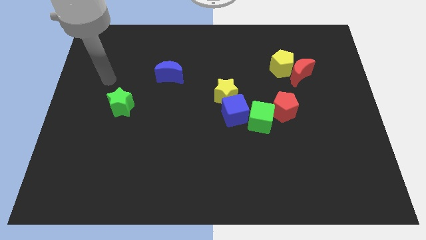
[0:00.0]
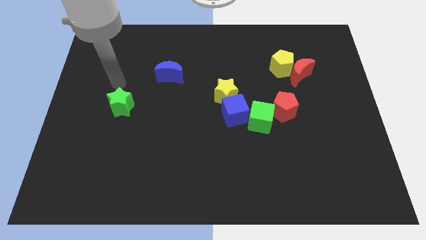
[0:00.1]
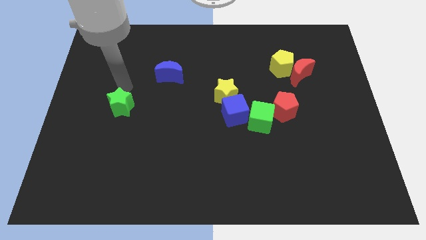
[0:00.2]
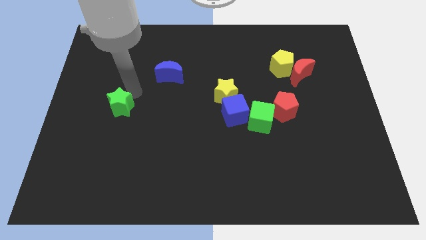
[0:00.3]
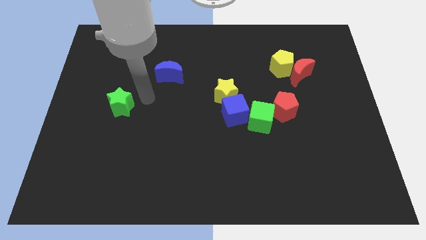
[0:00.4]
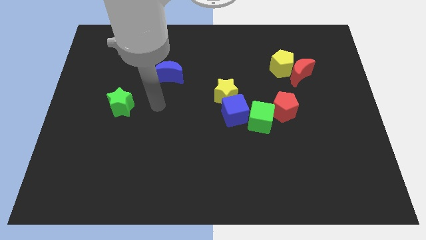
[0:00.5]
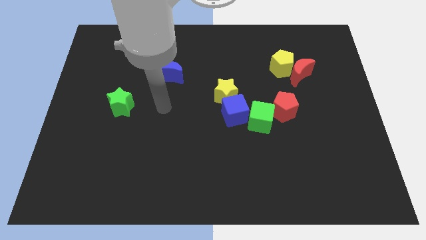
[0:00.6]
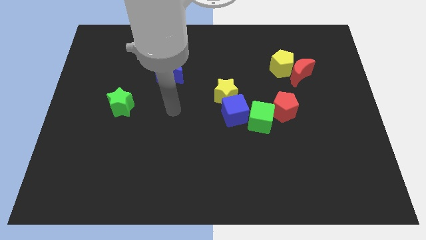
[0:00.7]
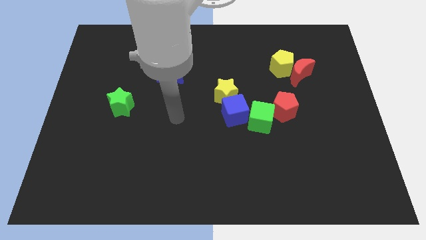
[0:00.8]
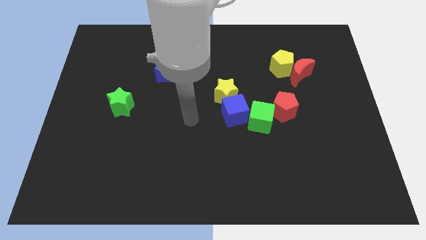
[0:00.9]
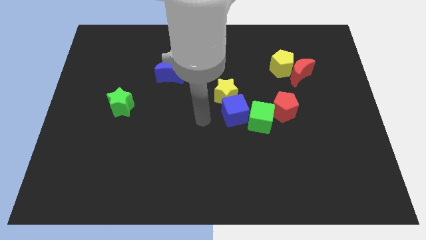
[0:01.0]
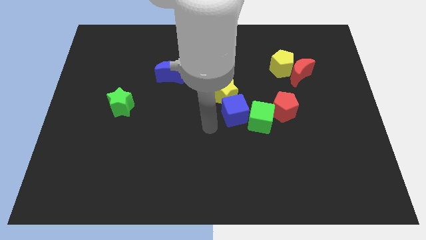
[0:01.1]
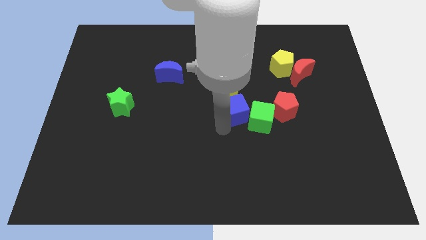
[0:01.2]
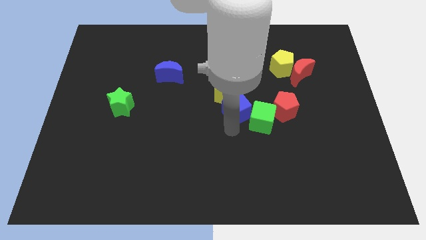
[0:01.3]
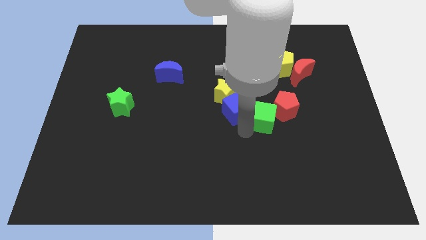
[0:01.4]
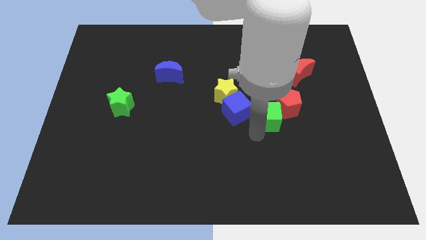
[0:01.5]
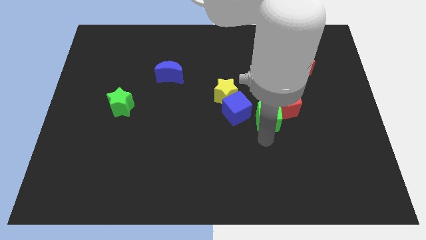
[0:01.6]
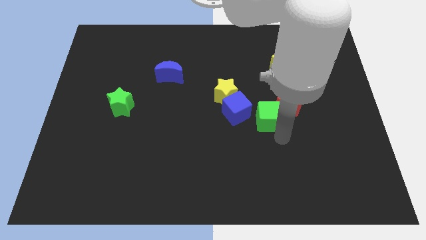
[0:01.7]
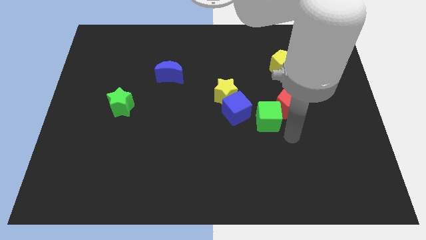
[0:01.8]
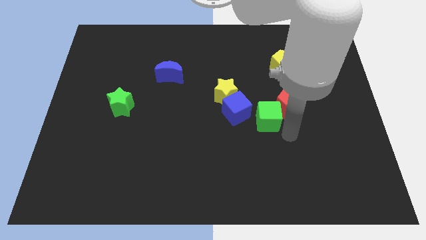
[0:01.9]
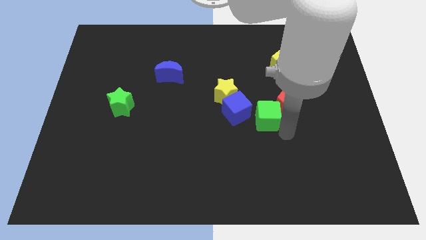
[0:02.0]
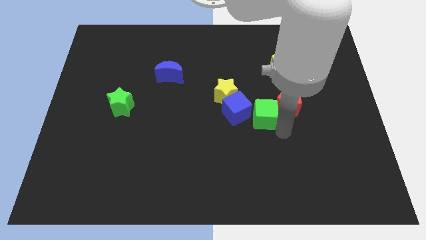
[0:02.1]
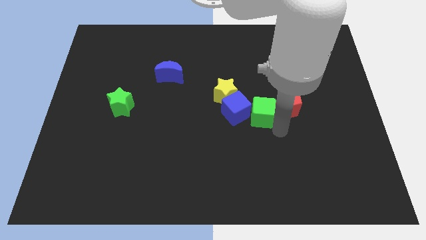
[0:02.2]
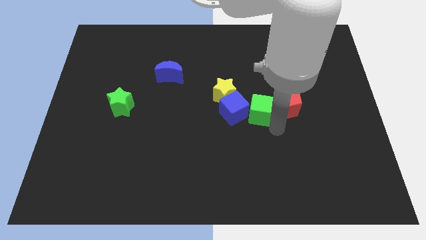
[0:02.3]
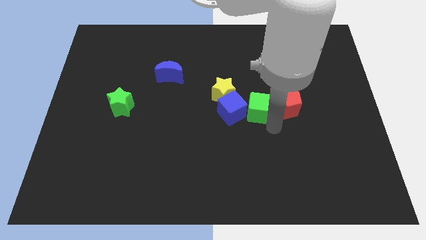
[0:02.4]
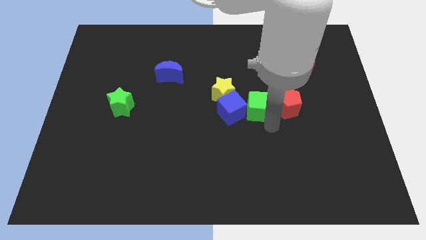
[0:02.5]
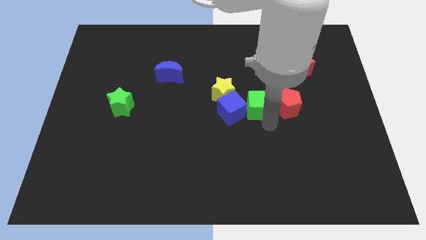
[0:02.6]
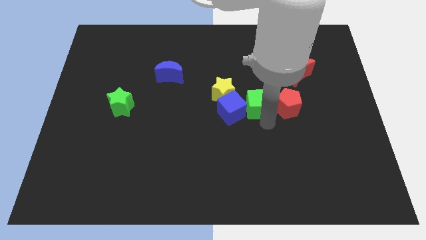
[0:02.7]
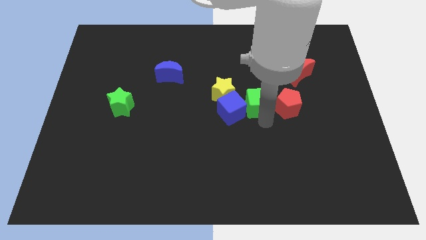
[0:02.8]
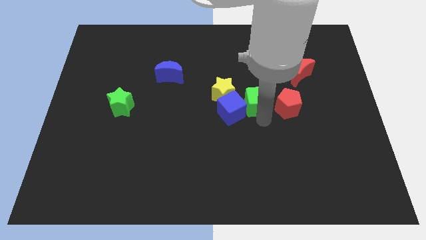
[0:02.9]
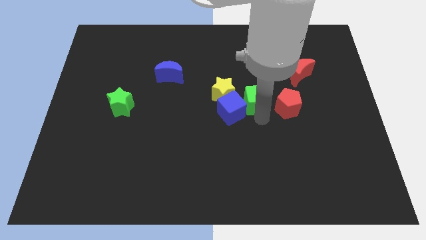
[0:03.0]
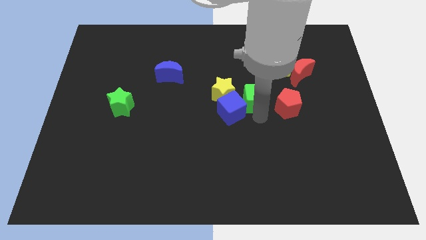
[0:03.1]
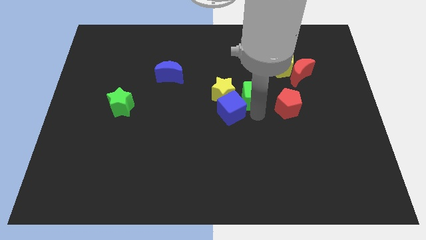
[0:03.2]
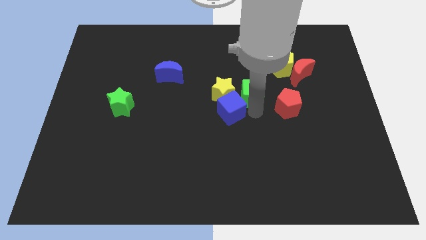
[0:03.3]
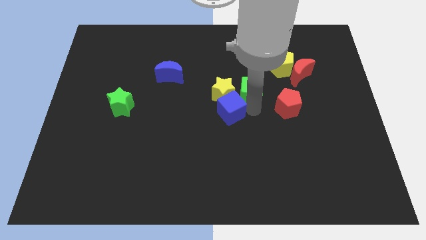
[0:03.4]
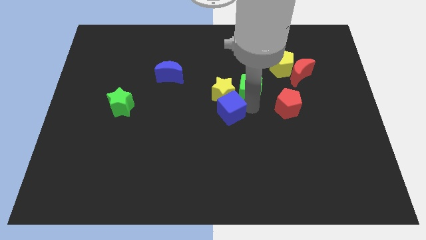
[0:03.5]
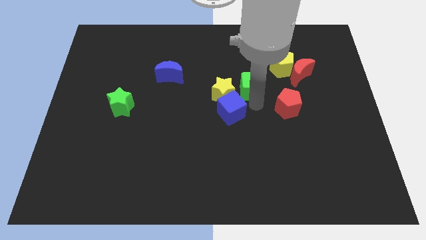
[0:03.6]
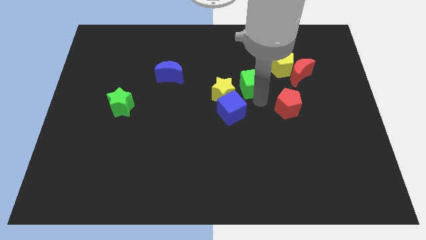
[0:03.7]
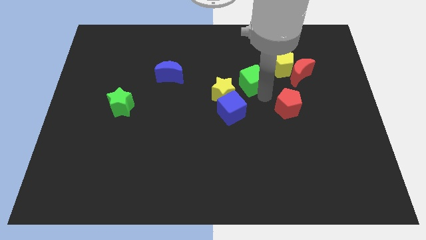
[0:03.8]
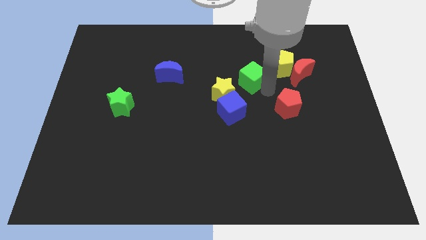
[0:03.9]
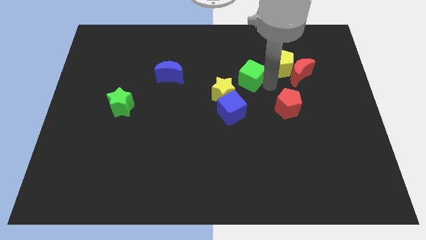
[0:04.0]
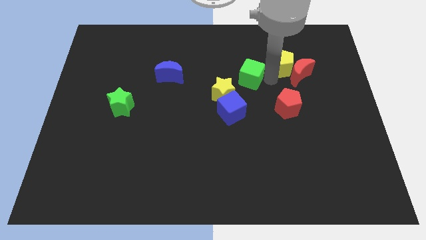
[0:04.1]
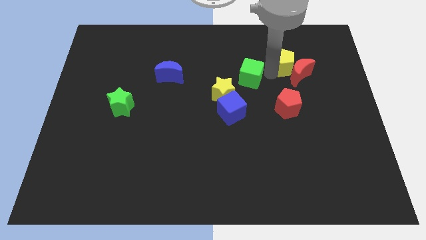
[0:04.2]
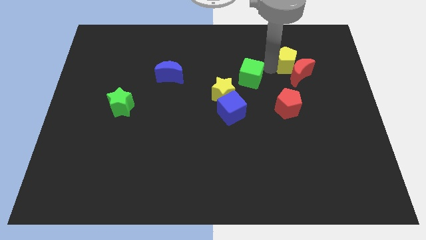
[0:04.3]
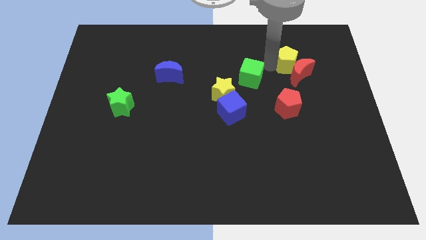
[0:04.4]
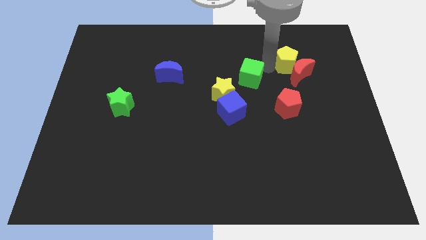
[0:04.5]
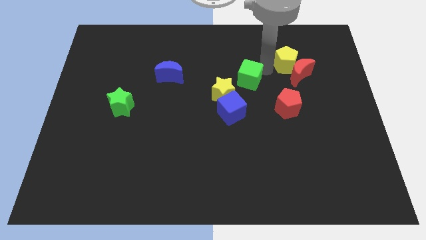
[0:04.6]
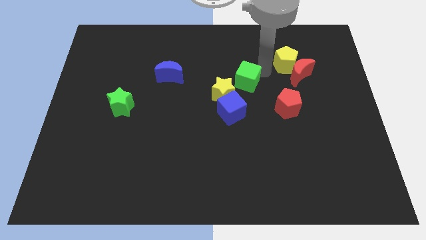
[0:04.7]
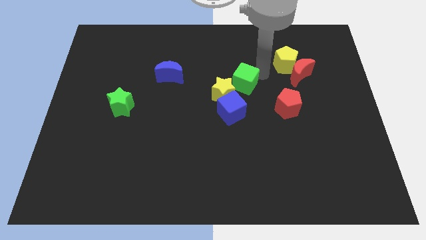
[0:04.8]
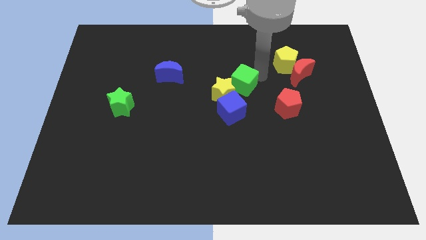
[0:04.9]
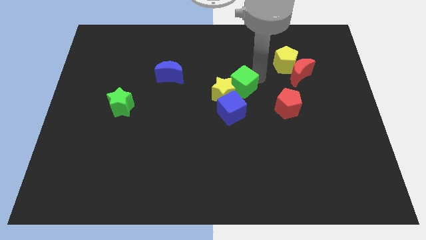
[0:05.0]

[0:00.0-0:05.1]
push the green cube close to the yellow star

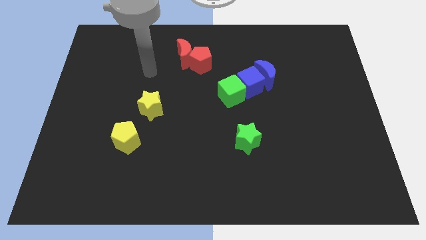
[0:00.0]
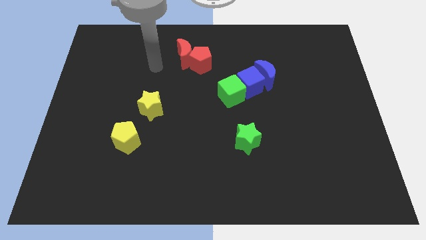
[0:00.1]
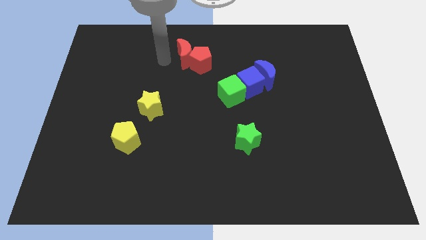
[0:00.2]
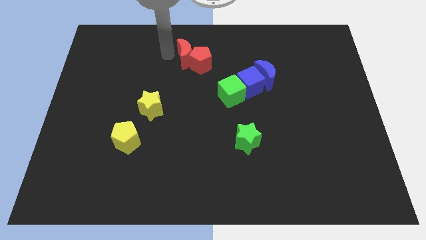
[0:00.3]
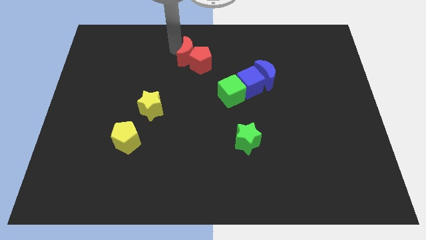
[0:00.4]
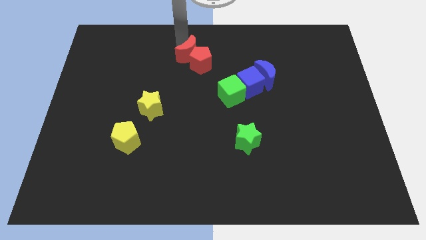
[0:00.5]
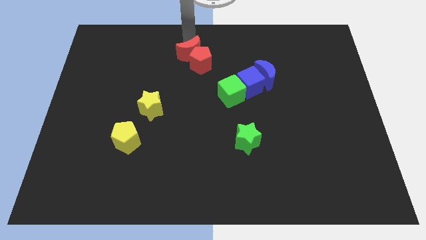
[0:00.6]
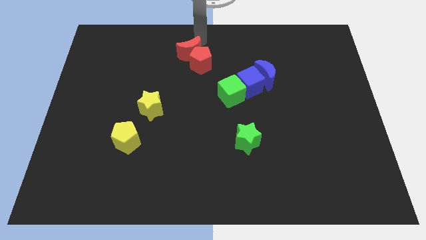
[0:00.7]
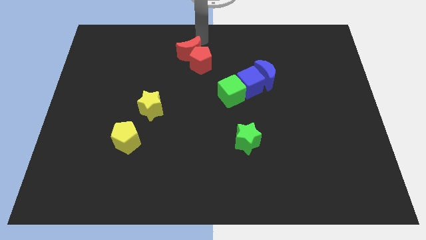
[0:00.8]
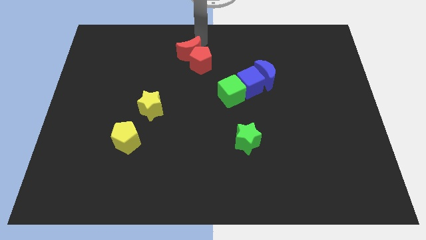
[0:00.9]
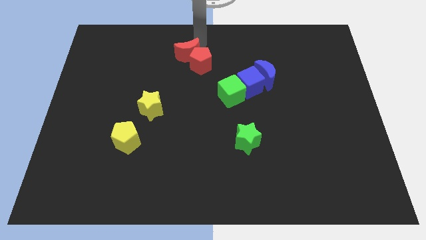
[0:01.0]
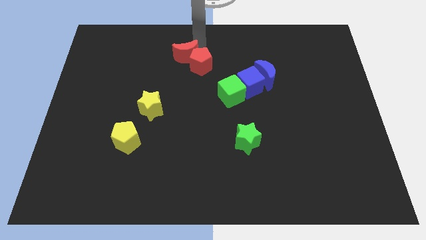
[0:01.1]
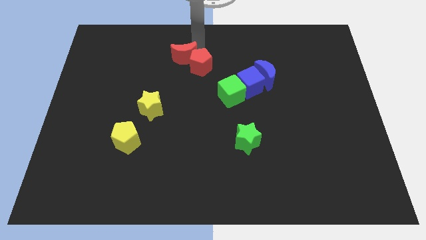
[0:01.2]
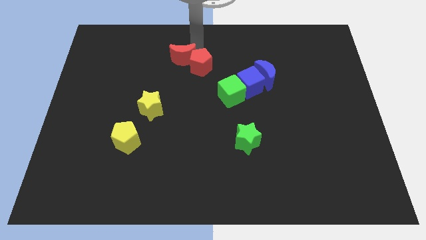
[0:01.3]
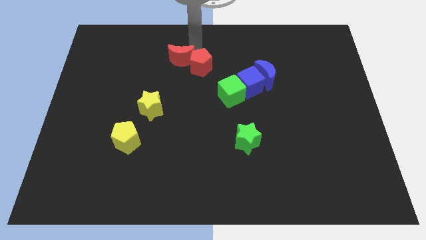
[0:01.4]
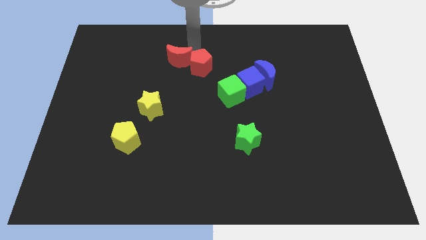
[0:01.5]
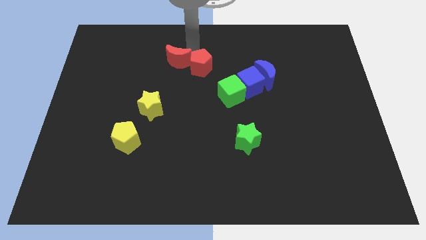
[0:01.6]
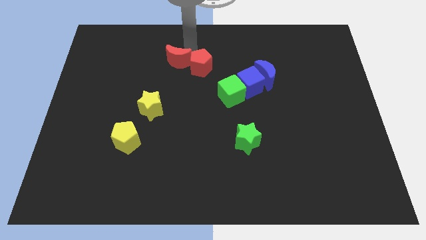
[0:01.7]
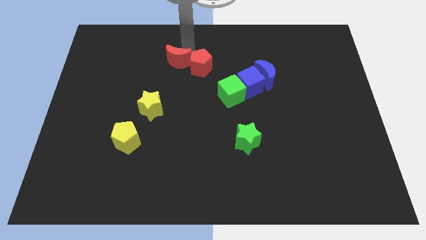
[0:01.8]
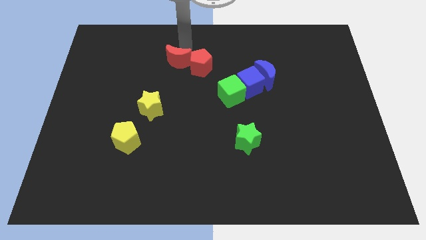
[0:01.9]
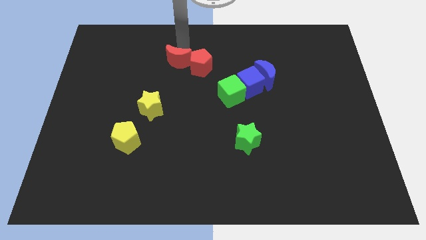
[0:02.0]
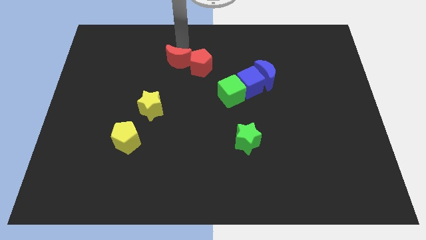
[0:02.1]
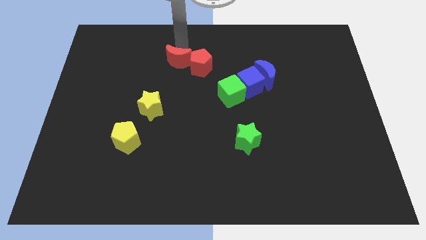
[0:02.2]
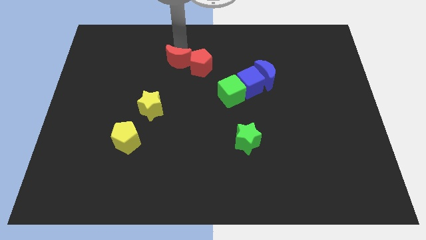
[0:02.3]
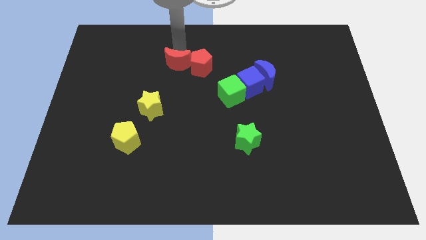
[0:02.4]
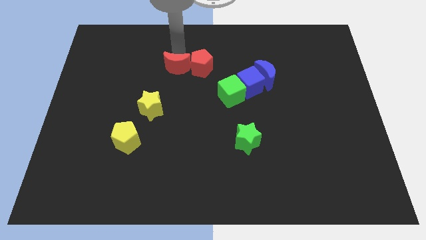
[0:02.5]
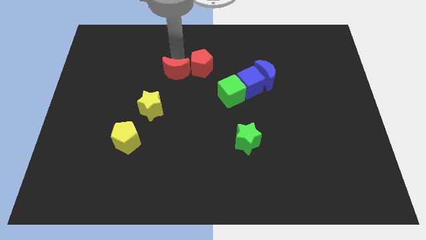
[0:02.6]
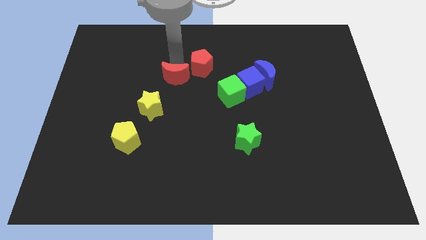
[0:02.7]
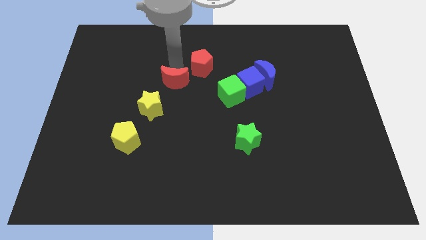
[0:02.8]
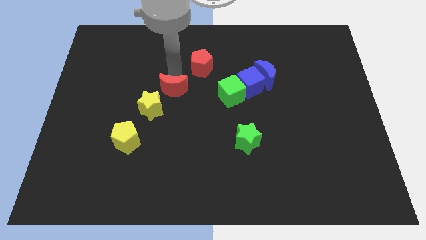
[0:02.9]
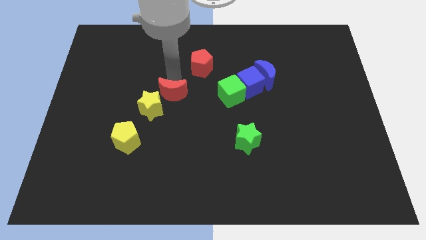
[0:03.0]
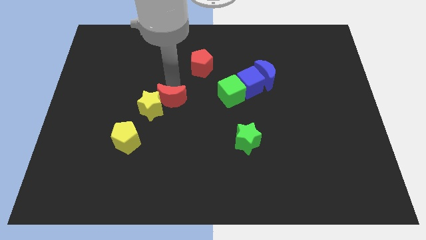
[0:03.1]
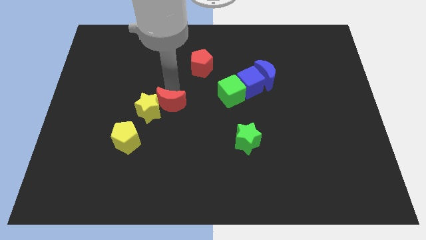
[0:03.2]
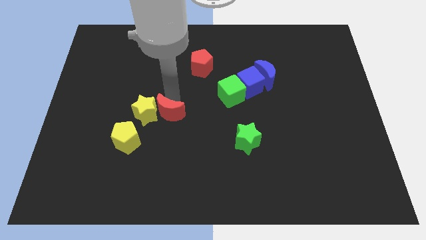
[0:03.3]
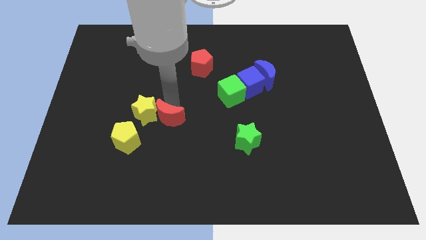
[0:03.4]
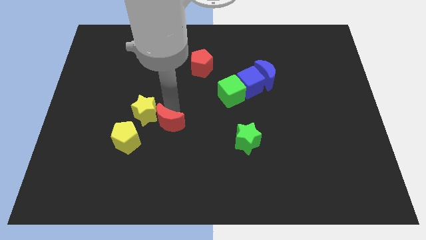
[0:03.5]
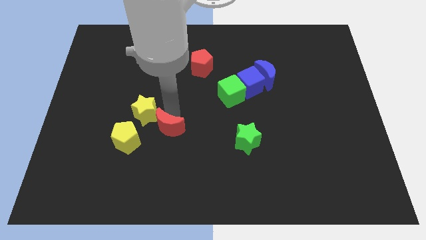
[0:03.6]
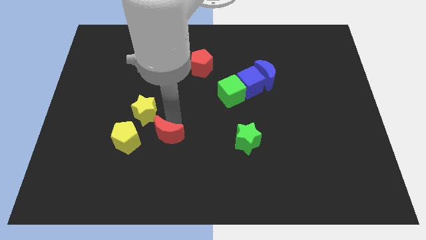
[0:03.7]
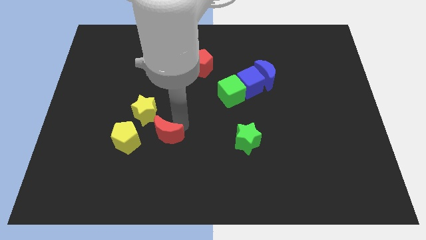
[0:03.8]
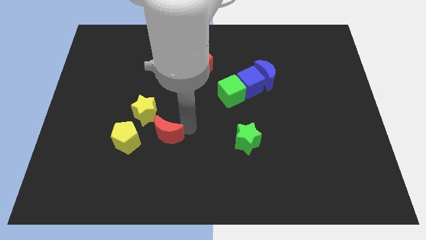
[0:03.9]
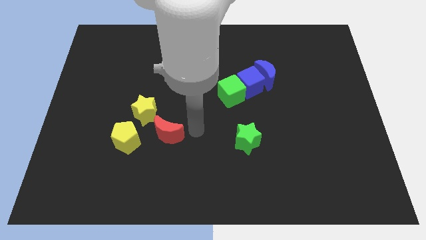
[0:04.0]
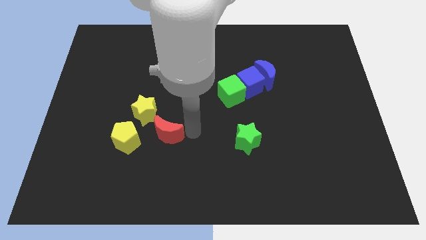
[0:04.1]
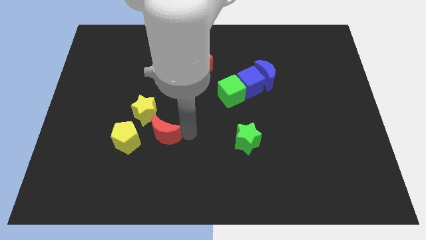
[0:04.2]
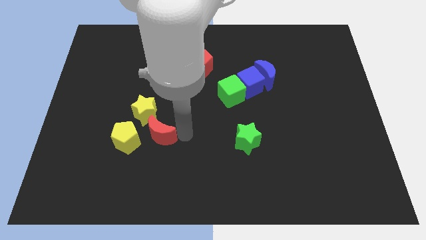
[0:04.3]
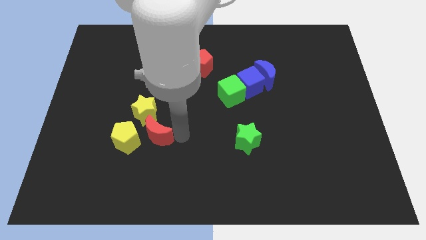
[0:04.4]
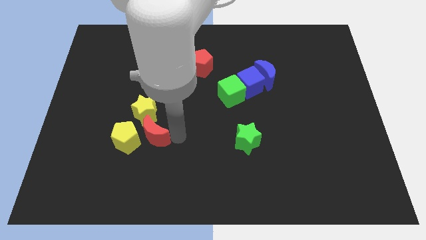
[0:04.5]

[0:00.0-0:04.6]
push the red moon to the yellow pentagon
